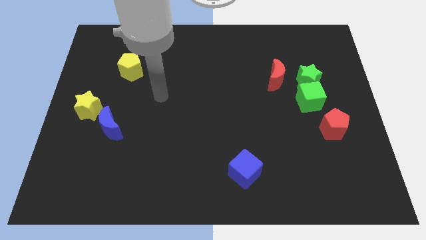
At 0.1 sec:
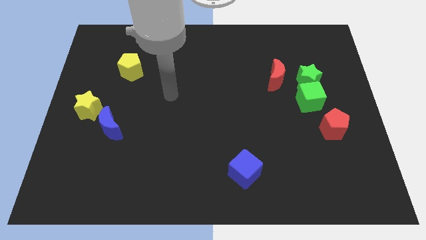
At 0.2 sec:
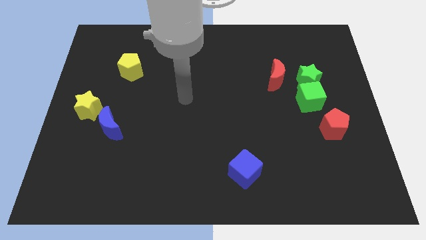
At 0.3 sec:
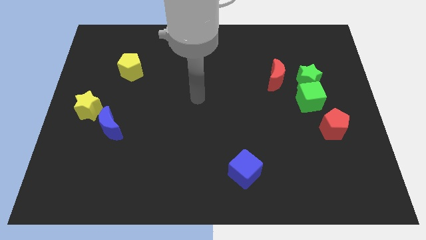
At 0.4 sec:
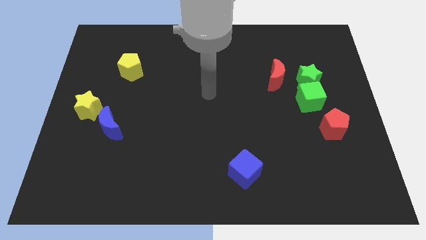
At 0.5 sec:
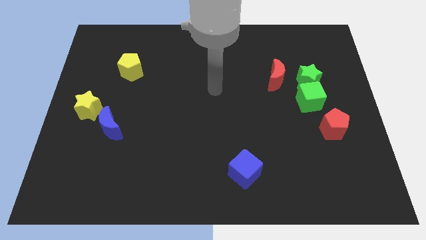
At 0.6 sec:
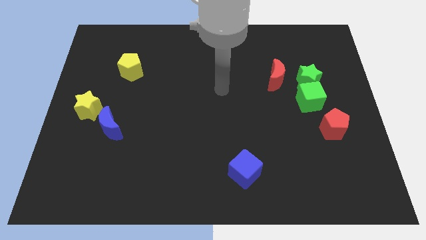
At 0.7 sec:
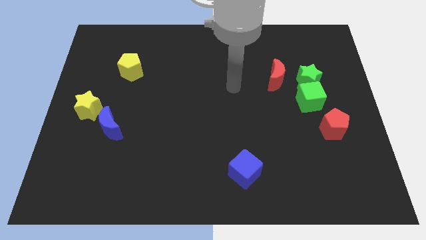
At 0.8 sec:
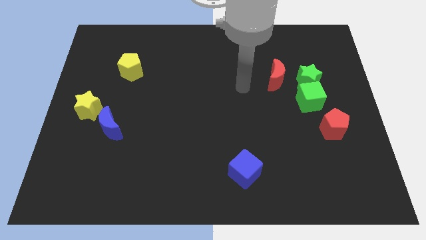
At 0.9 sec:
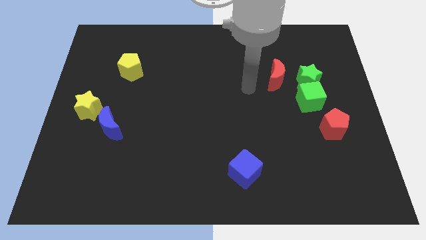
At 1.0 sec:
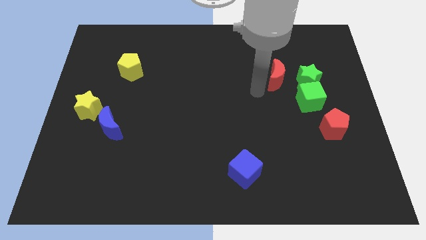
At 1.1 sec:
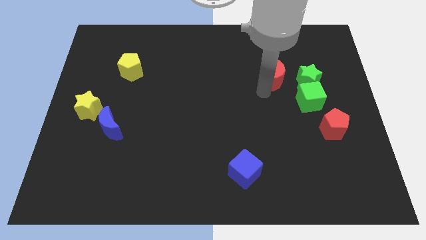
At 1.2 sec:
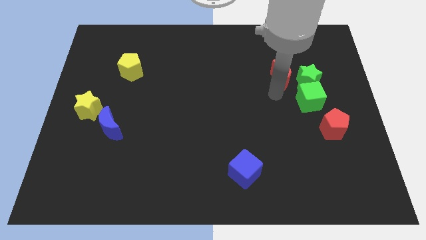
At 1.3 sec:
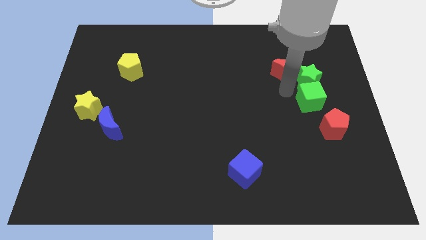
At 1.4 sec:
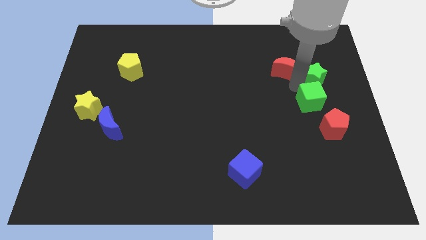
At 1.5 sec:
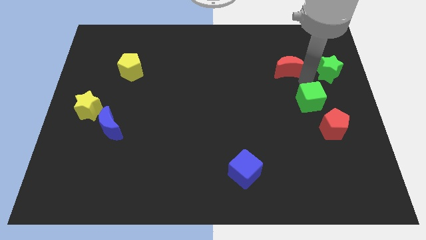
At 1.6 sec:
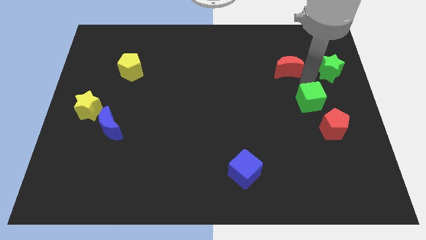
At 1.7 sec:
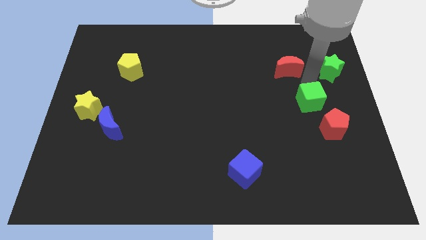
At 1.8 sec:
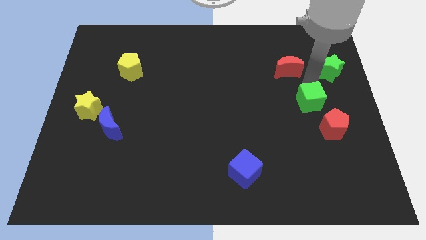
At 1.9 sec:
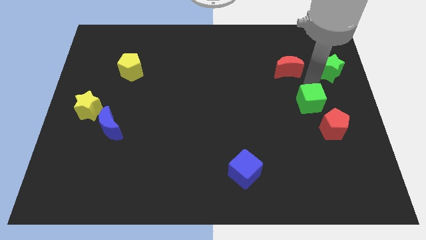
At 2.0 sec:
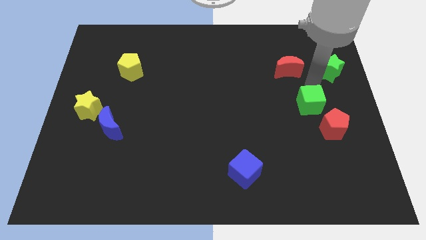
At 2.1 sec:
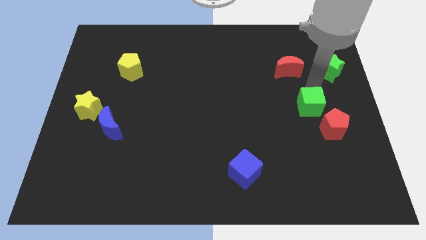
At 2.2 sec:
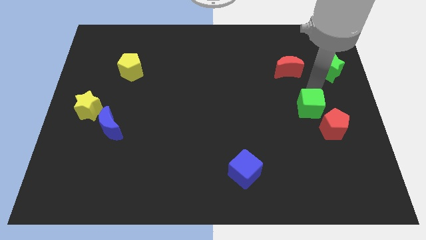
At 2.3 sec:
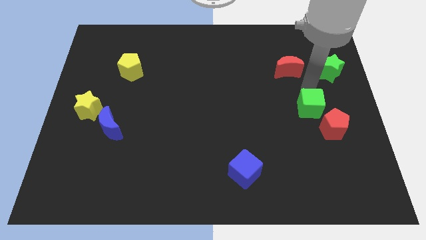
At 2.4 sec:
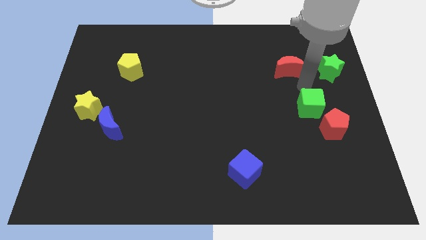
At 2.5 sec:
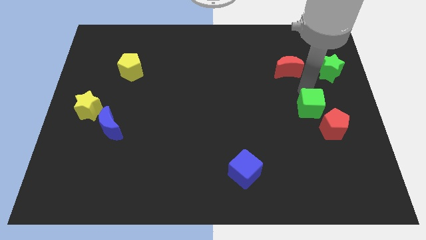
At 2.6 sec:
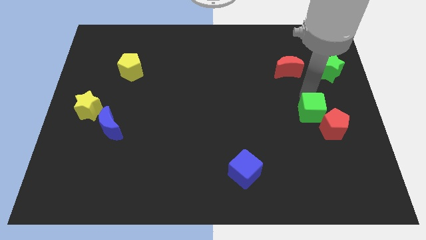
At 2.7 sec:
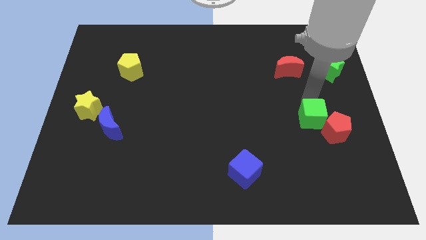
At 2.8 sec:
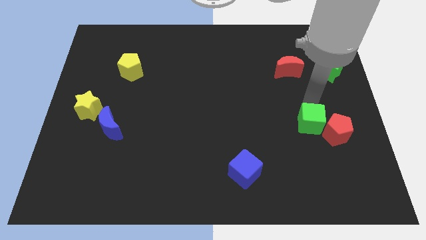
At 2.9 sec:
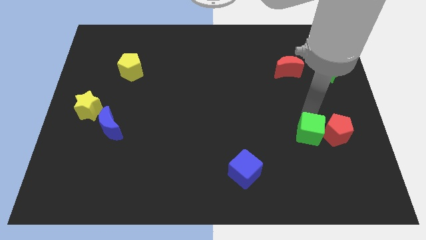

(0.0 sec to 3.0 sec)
slightly push the green cube down

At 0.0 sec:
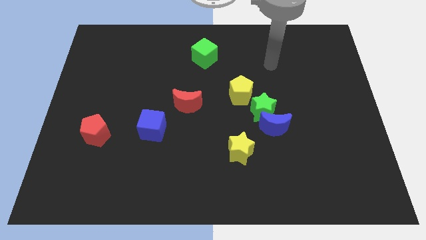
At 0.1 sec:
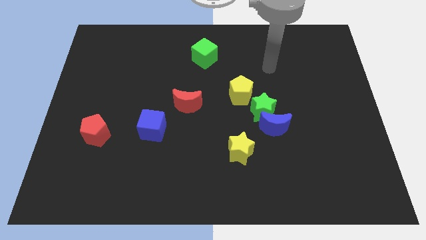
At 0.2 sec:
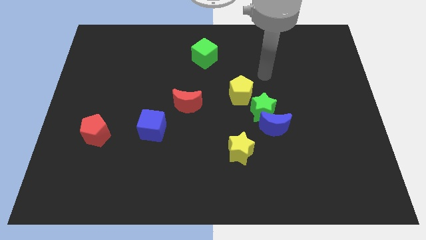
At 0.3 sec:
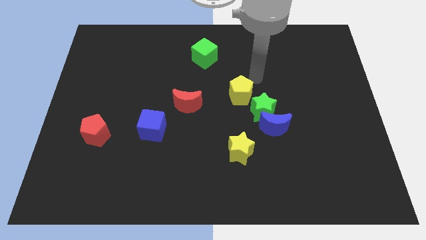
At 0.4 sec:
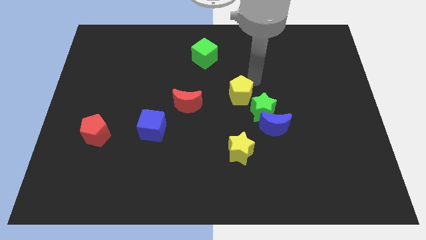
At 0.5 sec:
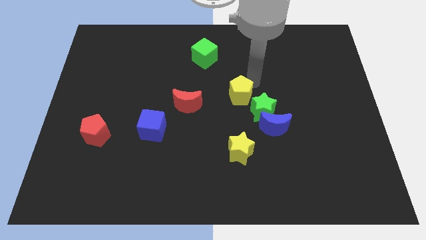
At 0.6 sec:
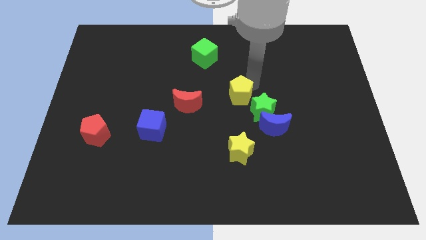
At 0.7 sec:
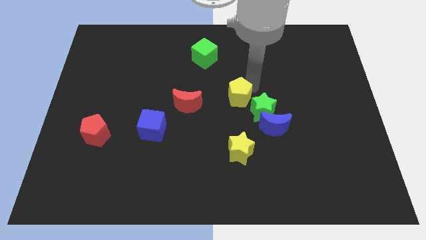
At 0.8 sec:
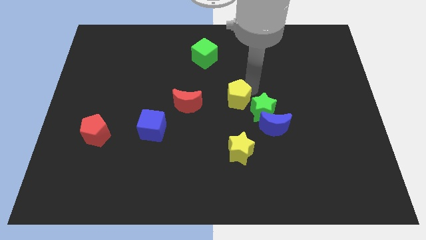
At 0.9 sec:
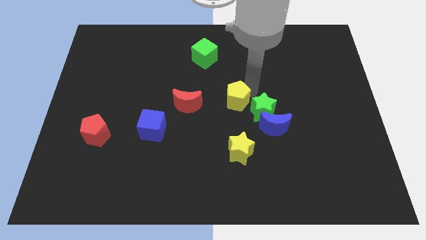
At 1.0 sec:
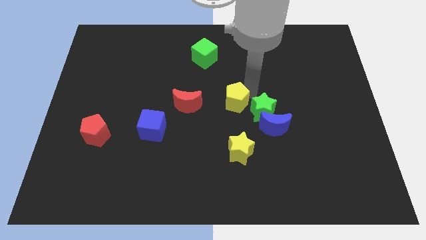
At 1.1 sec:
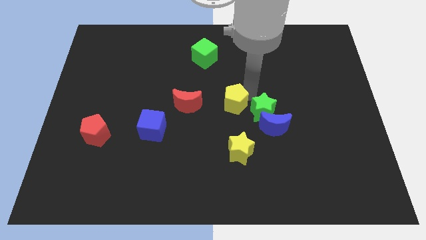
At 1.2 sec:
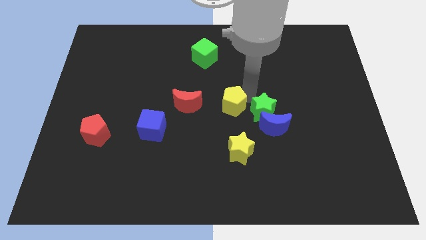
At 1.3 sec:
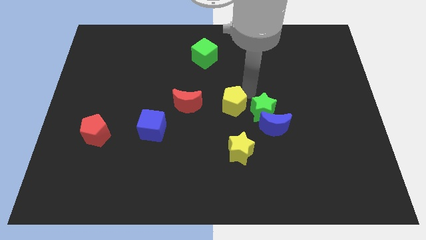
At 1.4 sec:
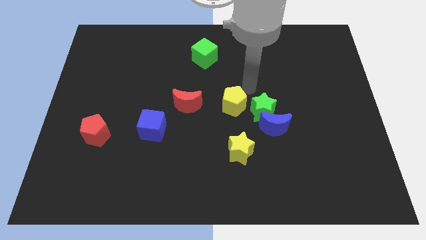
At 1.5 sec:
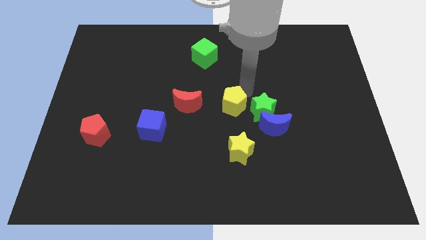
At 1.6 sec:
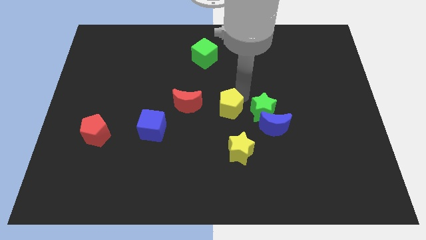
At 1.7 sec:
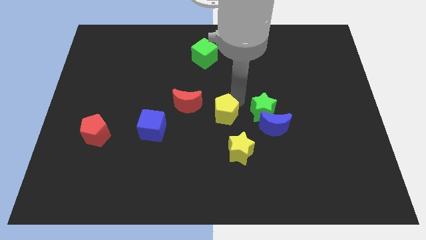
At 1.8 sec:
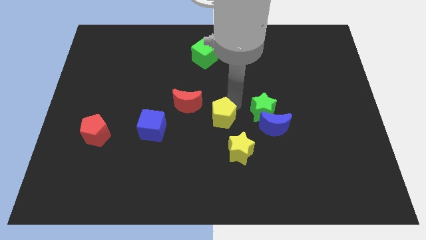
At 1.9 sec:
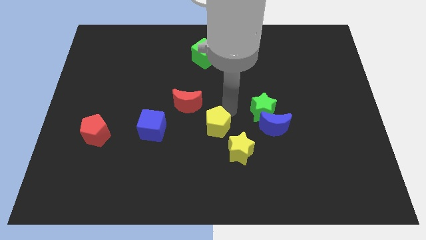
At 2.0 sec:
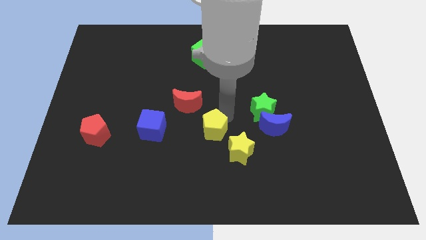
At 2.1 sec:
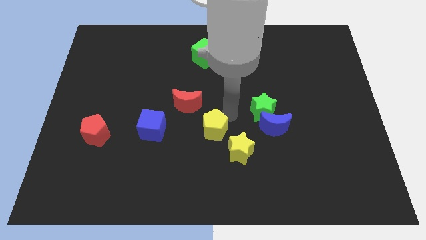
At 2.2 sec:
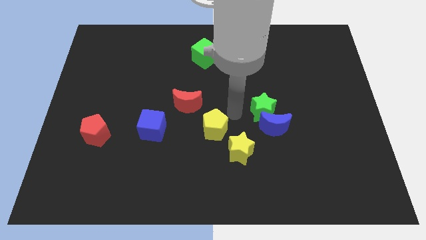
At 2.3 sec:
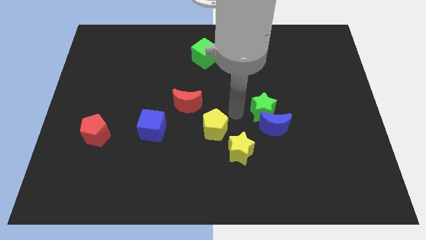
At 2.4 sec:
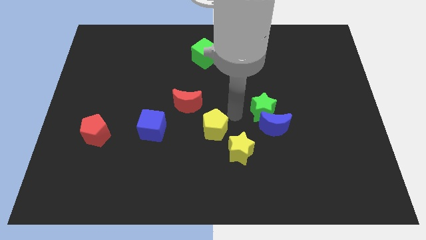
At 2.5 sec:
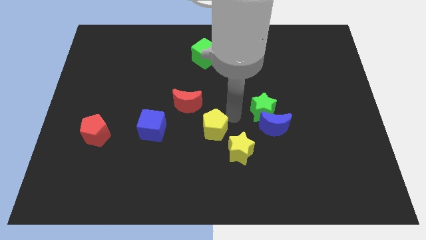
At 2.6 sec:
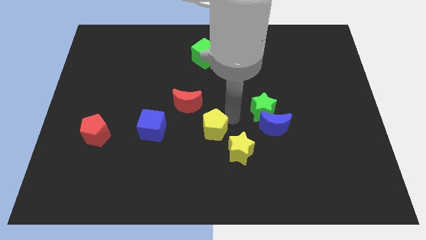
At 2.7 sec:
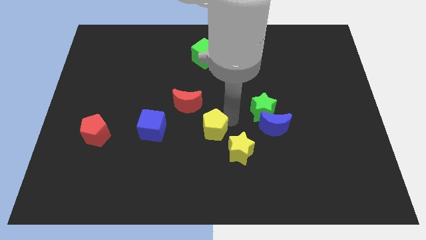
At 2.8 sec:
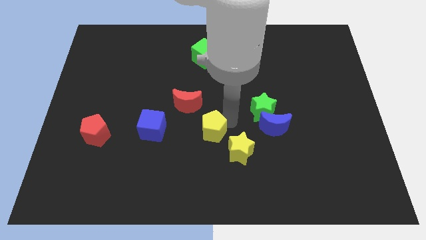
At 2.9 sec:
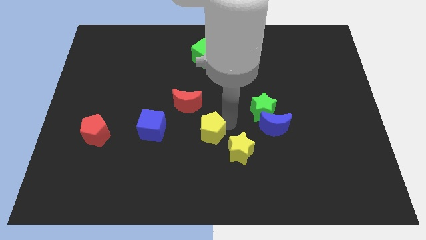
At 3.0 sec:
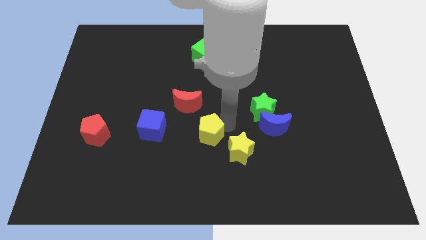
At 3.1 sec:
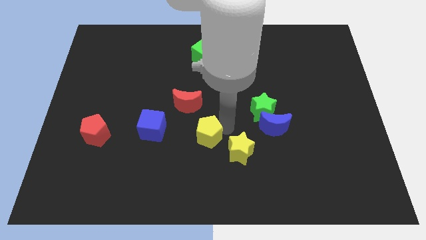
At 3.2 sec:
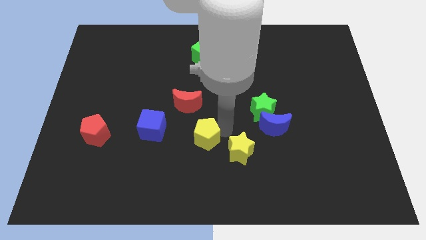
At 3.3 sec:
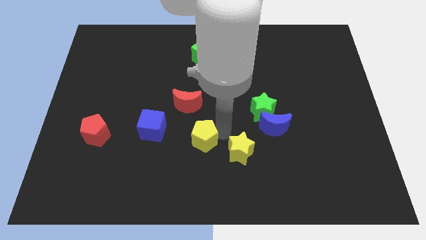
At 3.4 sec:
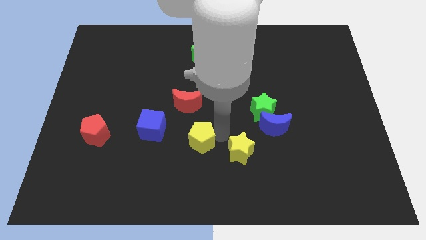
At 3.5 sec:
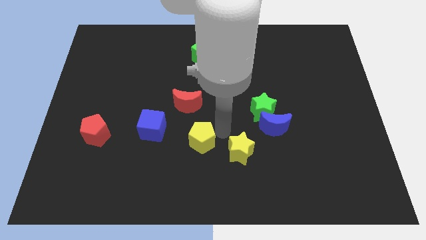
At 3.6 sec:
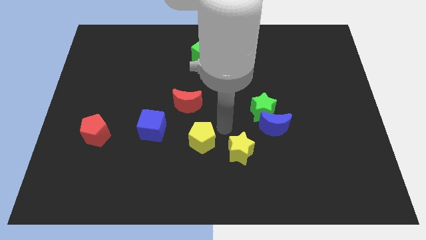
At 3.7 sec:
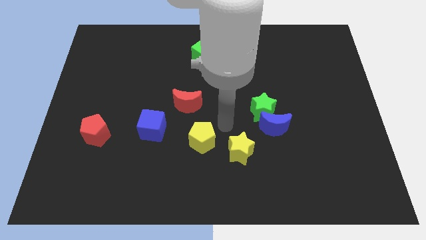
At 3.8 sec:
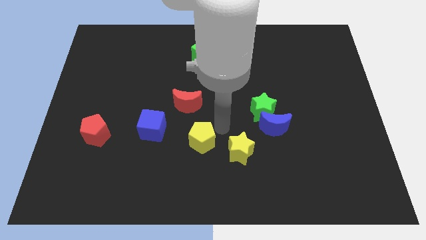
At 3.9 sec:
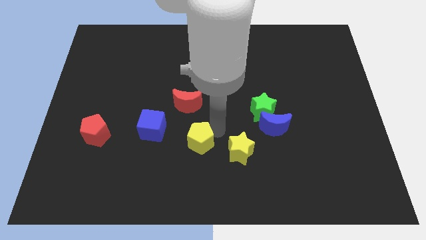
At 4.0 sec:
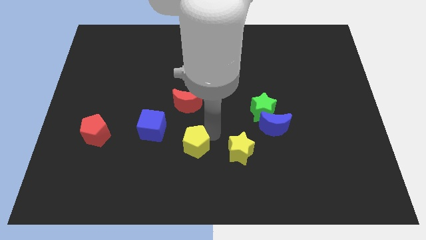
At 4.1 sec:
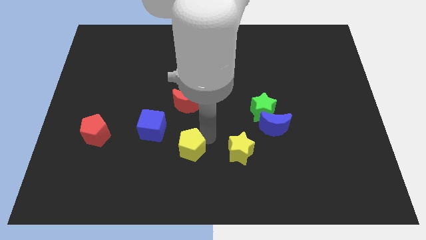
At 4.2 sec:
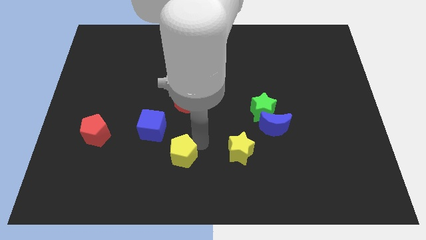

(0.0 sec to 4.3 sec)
move the yellow pentagon down and left

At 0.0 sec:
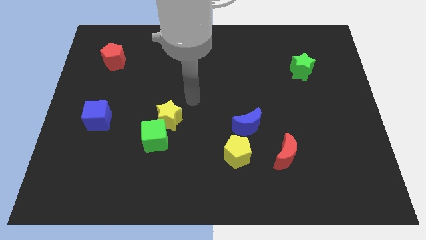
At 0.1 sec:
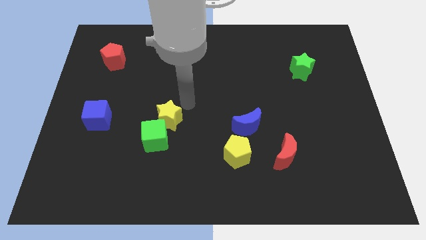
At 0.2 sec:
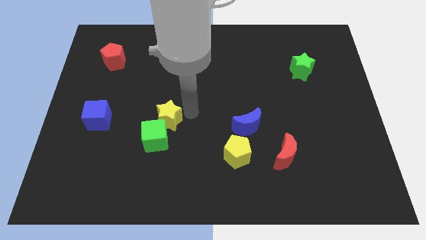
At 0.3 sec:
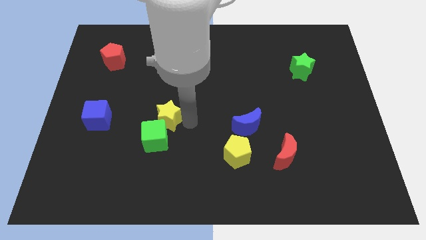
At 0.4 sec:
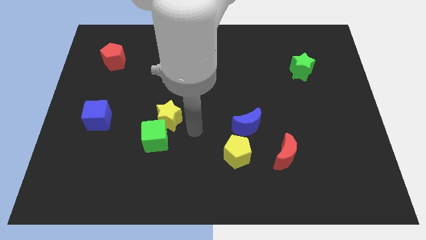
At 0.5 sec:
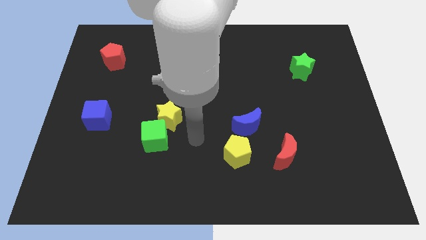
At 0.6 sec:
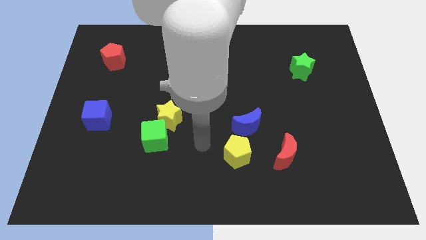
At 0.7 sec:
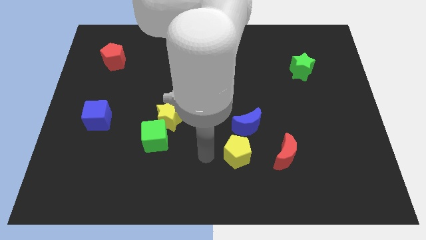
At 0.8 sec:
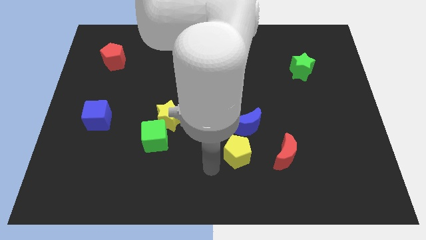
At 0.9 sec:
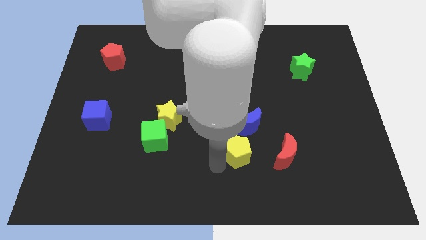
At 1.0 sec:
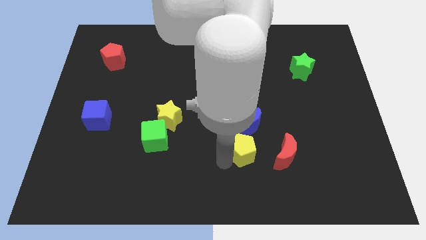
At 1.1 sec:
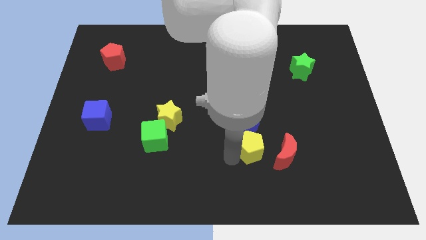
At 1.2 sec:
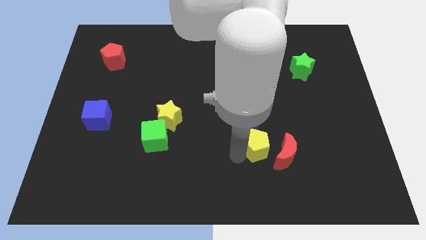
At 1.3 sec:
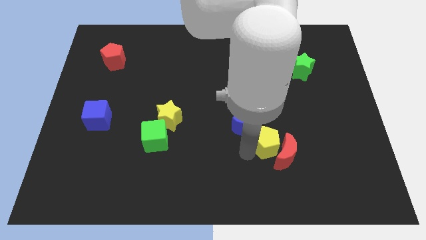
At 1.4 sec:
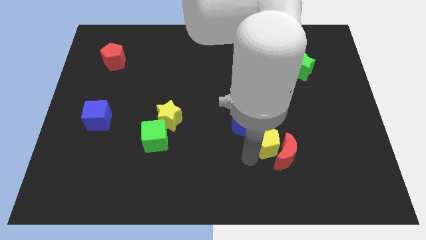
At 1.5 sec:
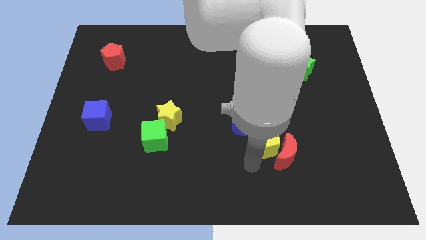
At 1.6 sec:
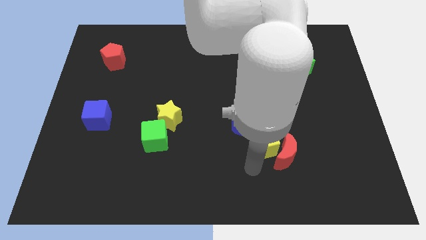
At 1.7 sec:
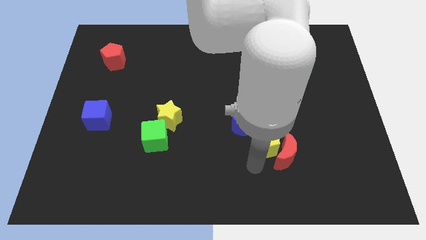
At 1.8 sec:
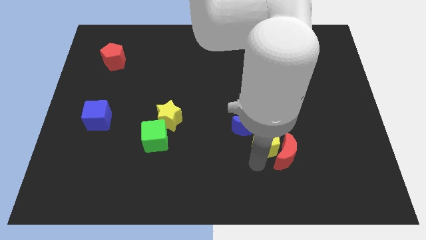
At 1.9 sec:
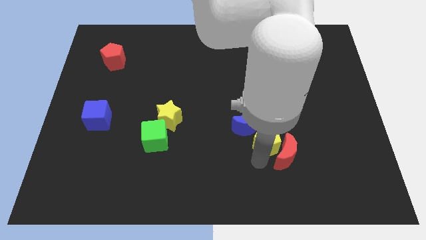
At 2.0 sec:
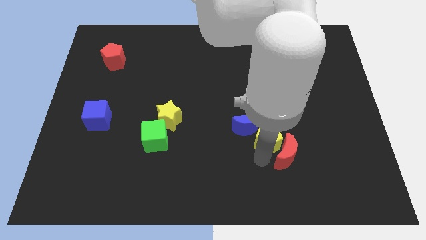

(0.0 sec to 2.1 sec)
slide the yellow pentagon slightly upwards and right
